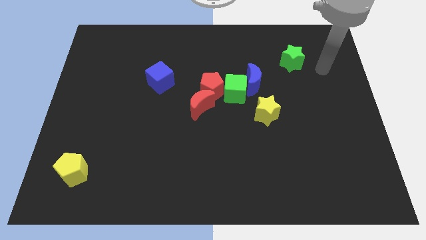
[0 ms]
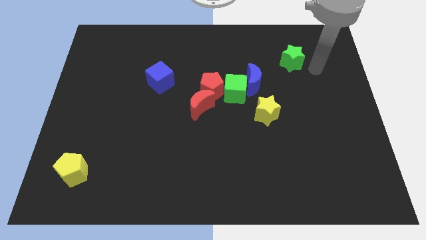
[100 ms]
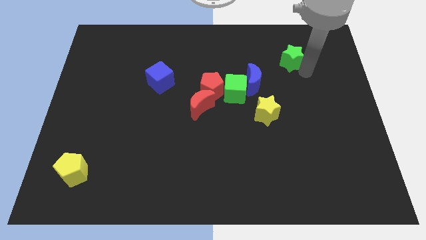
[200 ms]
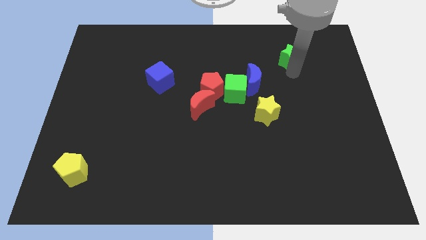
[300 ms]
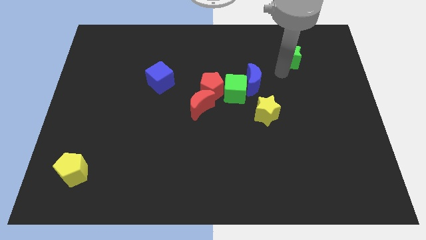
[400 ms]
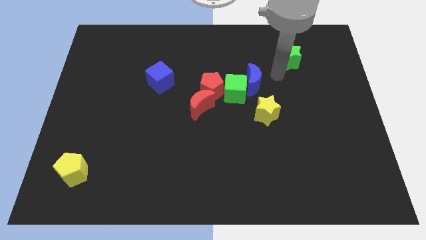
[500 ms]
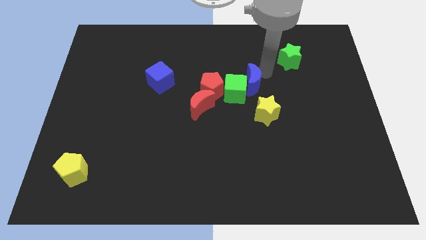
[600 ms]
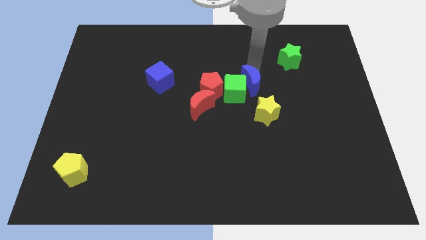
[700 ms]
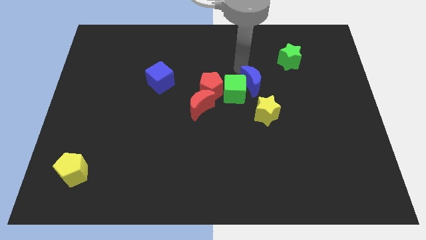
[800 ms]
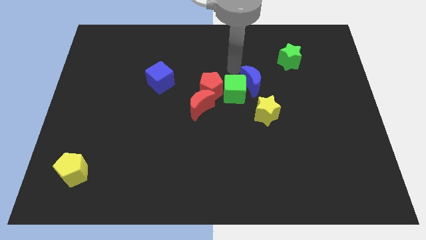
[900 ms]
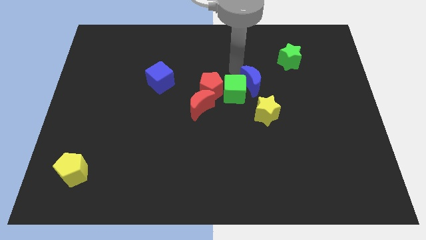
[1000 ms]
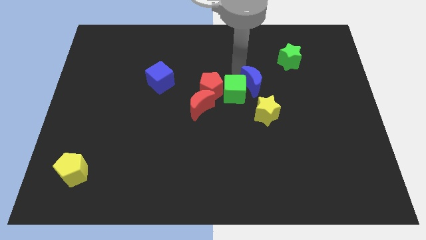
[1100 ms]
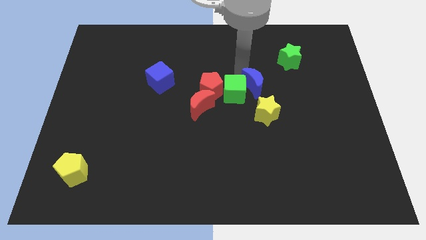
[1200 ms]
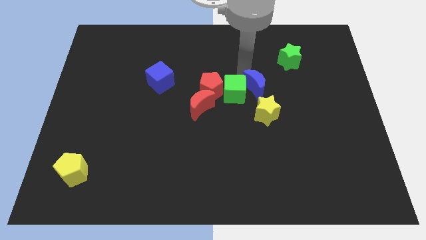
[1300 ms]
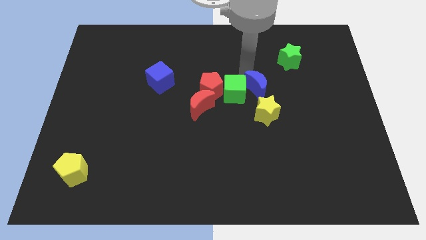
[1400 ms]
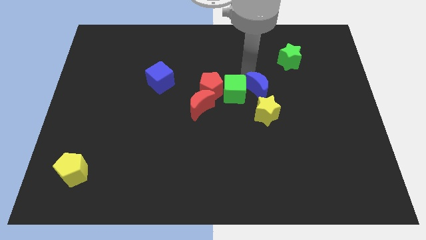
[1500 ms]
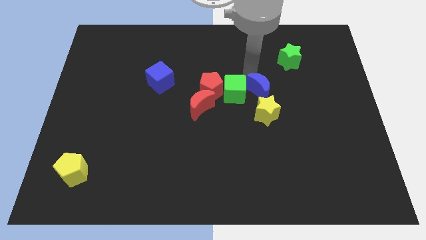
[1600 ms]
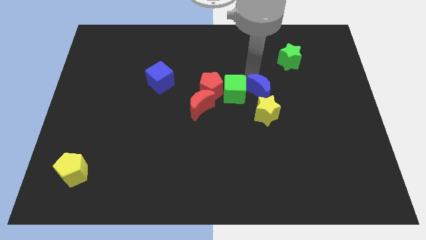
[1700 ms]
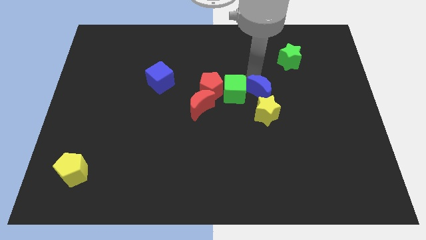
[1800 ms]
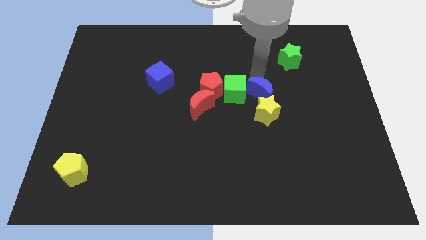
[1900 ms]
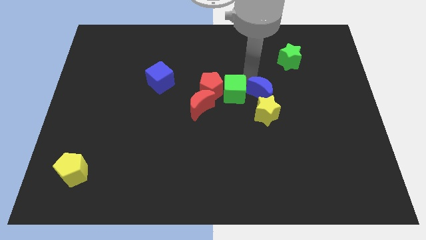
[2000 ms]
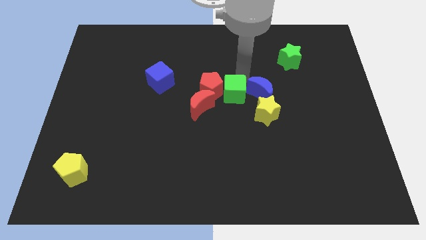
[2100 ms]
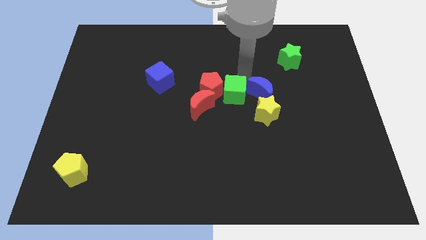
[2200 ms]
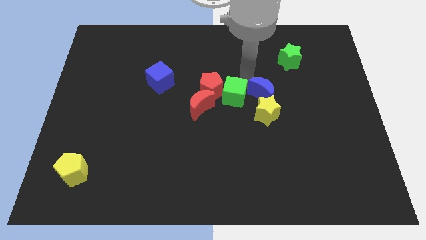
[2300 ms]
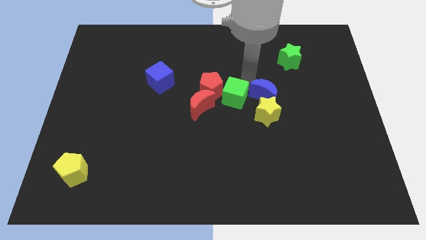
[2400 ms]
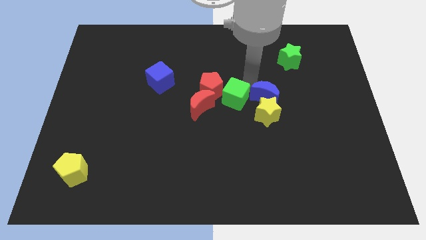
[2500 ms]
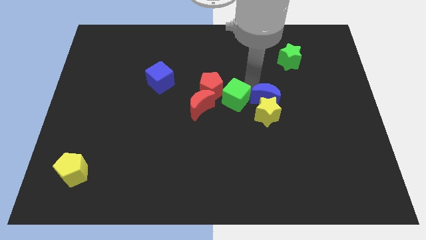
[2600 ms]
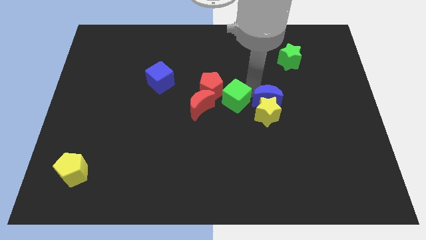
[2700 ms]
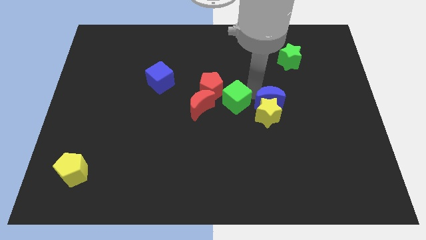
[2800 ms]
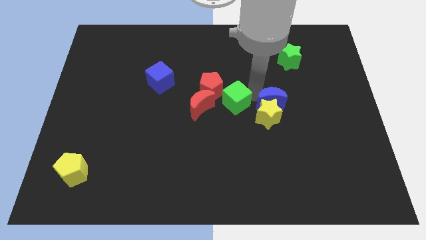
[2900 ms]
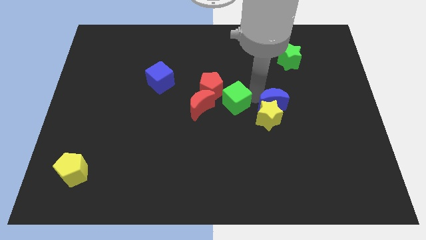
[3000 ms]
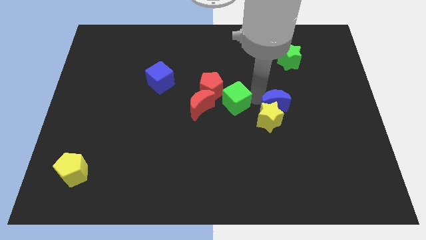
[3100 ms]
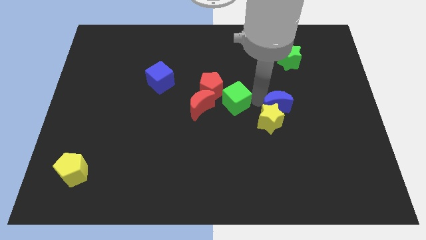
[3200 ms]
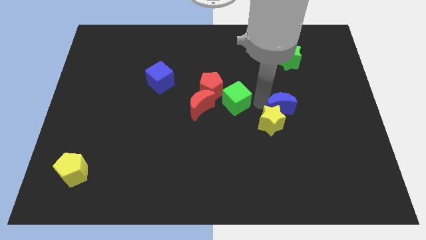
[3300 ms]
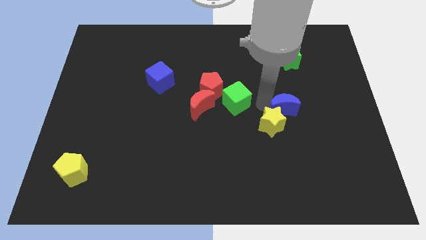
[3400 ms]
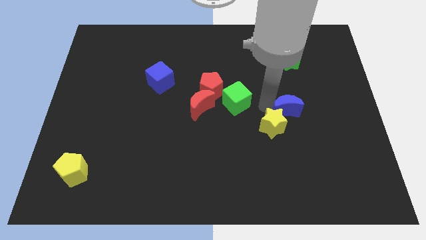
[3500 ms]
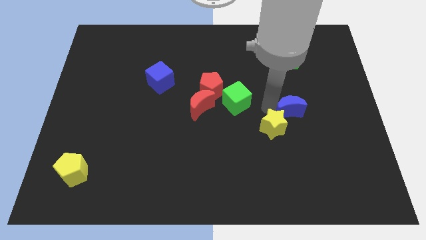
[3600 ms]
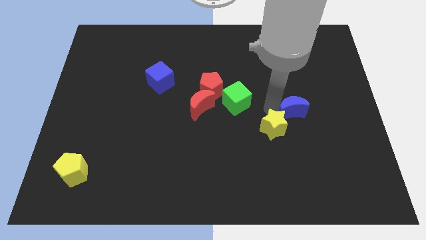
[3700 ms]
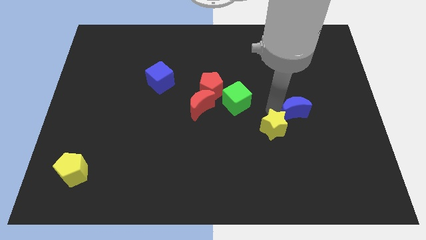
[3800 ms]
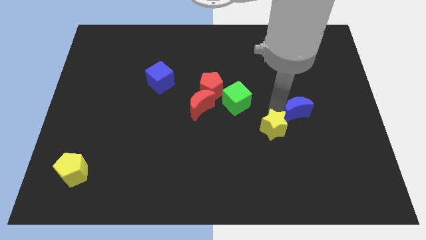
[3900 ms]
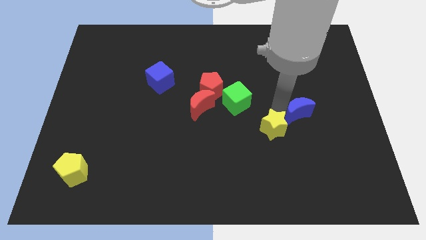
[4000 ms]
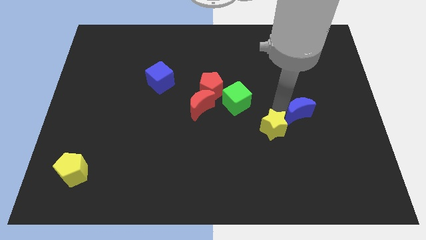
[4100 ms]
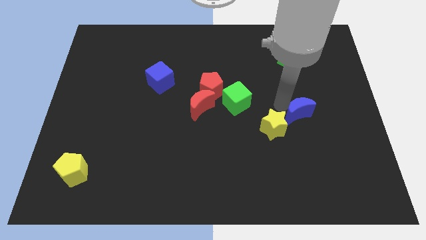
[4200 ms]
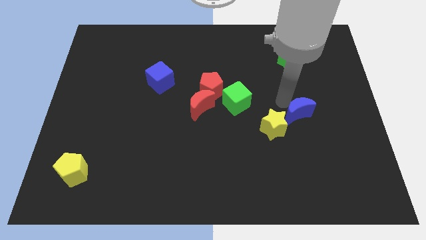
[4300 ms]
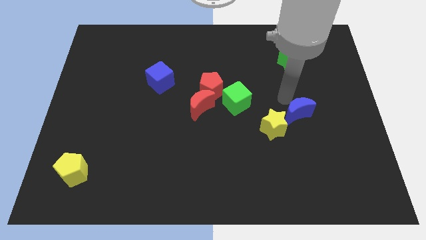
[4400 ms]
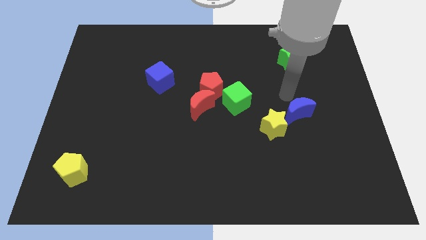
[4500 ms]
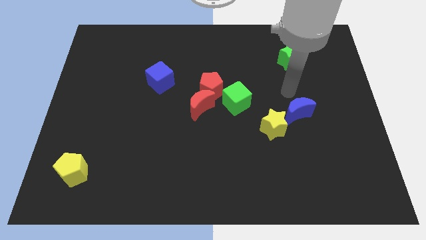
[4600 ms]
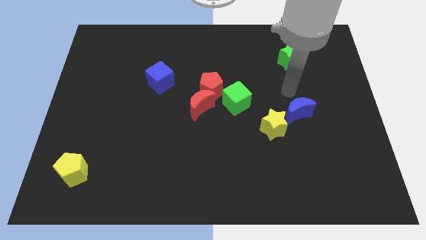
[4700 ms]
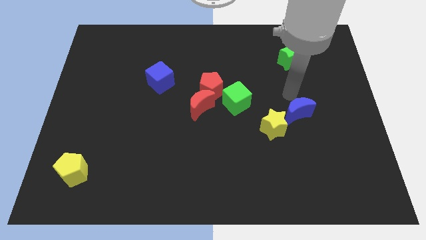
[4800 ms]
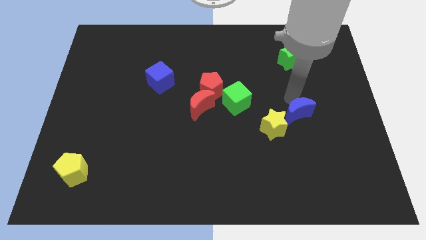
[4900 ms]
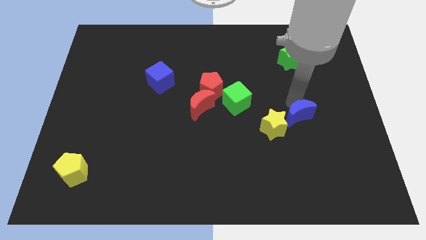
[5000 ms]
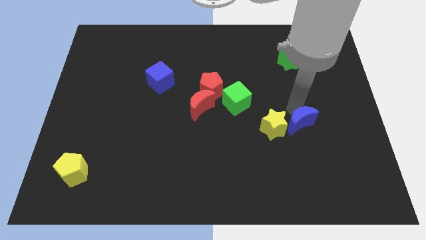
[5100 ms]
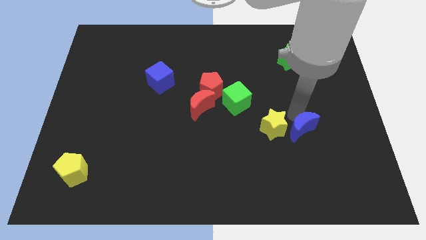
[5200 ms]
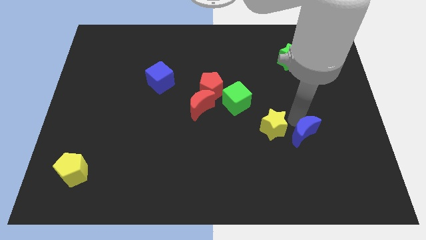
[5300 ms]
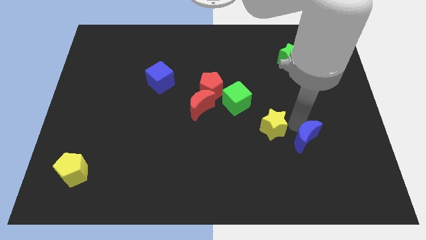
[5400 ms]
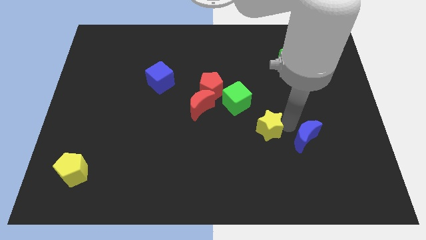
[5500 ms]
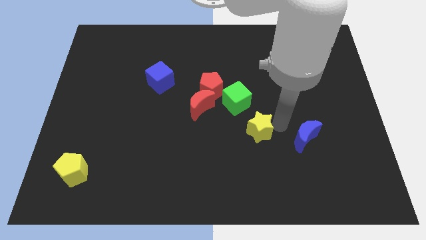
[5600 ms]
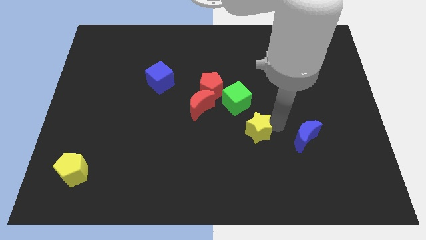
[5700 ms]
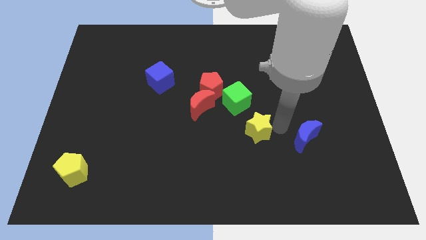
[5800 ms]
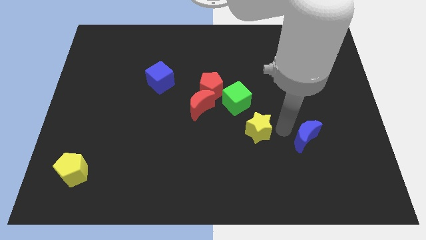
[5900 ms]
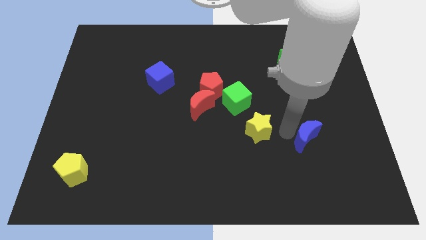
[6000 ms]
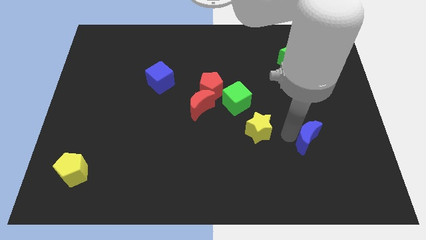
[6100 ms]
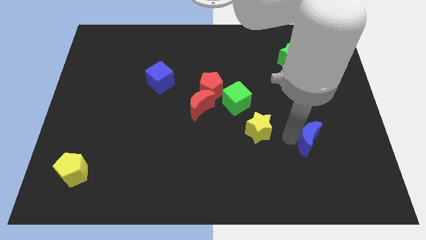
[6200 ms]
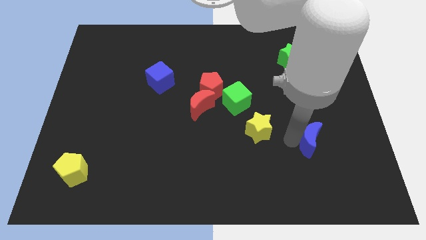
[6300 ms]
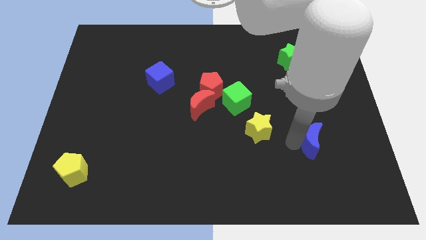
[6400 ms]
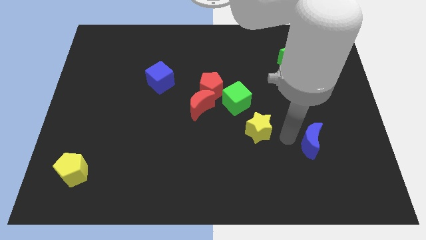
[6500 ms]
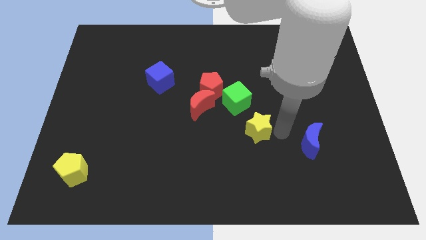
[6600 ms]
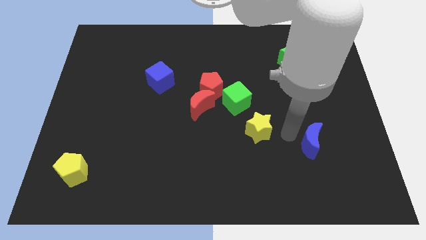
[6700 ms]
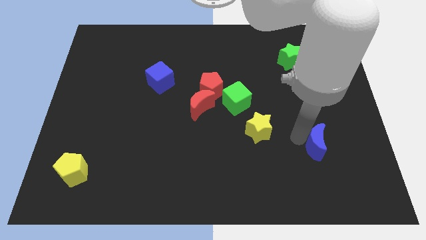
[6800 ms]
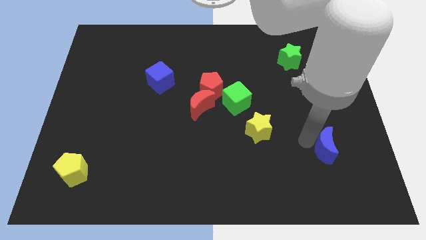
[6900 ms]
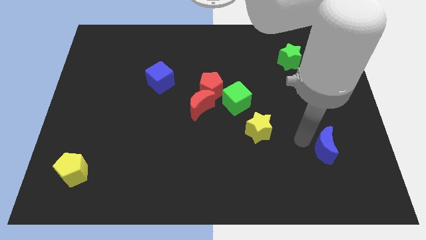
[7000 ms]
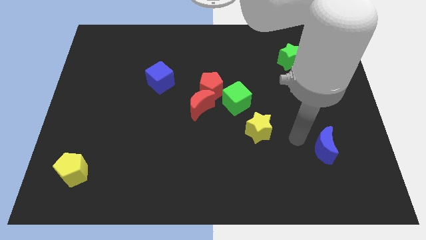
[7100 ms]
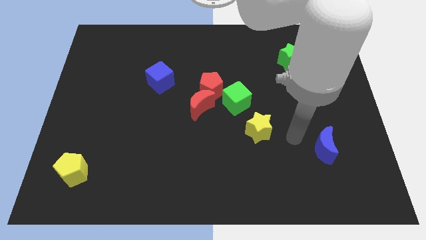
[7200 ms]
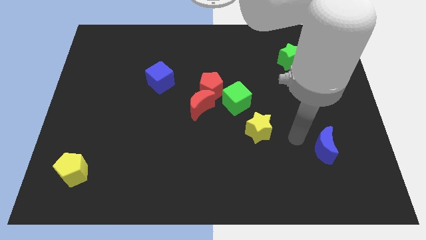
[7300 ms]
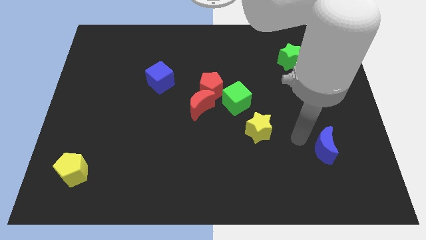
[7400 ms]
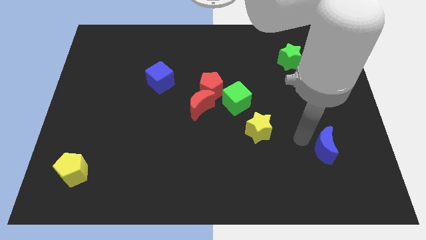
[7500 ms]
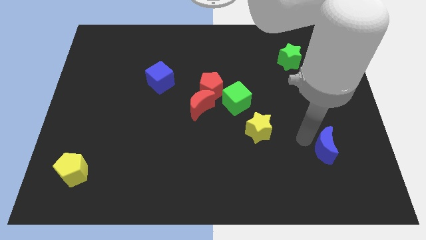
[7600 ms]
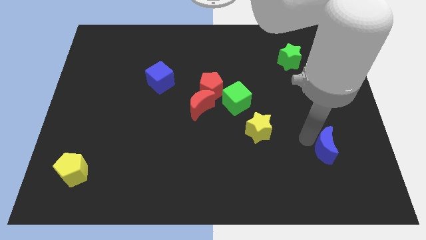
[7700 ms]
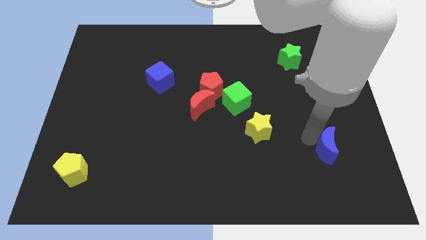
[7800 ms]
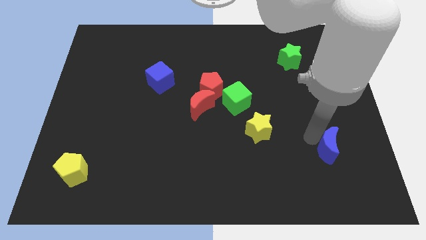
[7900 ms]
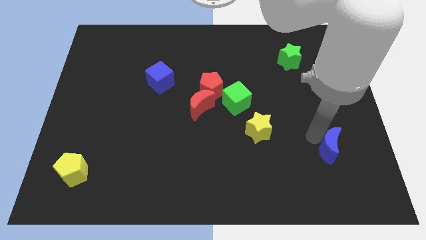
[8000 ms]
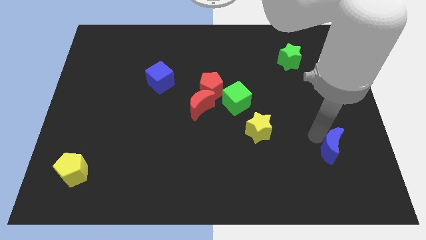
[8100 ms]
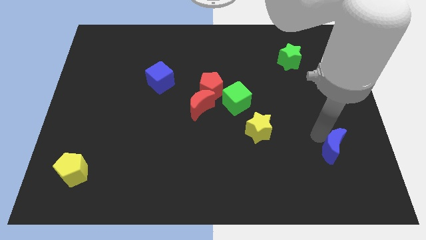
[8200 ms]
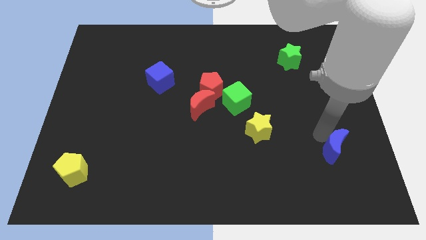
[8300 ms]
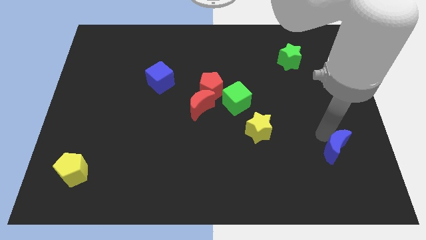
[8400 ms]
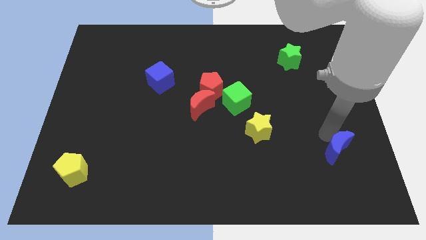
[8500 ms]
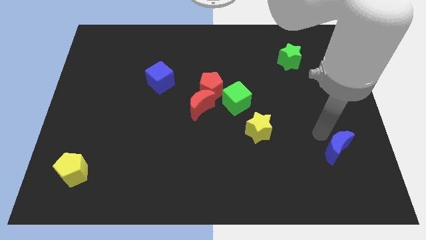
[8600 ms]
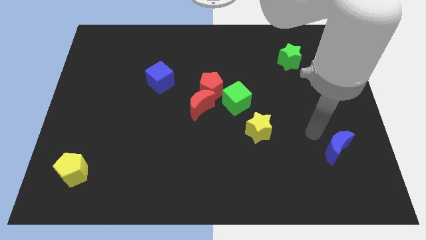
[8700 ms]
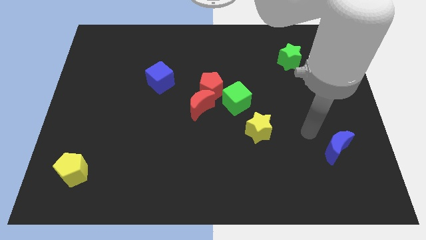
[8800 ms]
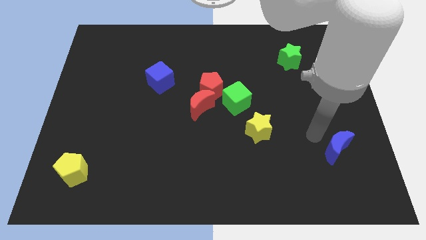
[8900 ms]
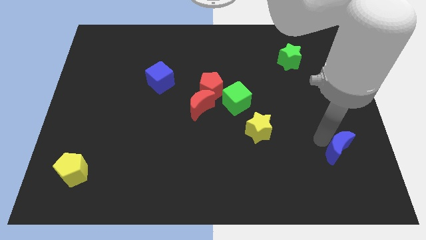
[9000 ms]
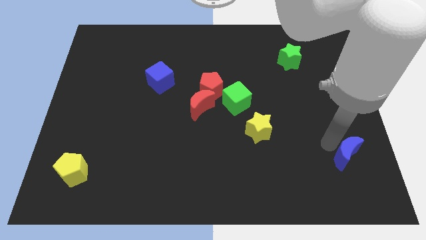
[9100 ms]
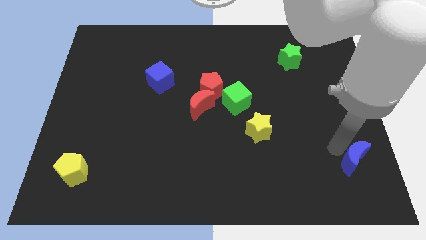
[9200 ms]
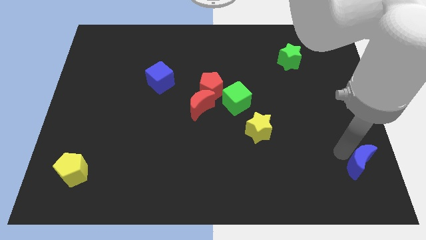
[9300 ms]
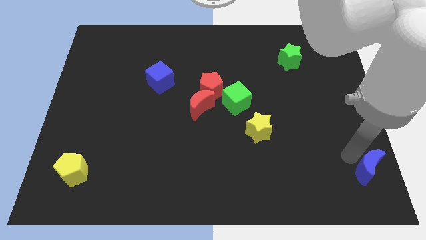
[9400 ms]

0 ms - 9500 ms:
slide the blue moon to the bottom right corner
